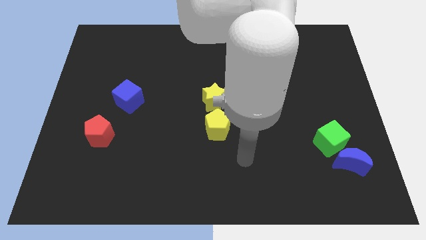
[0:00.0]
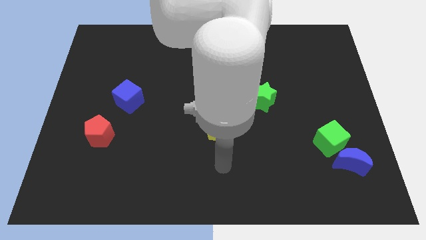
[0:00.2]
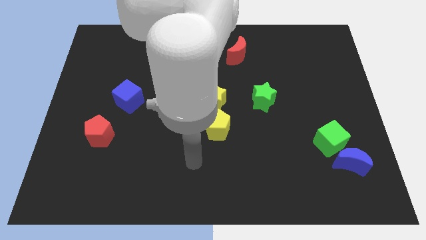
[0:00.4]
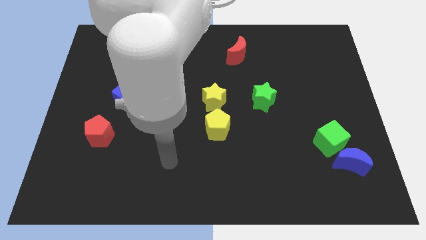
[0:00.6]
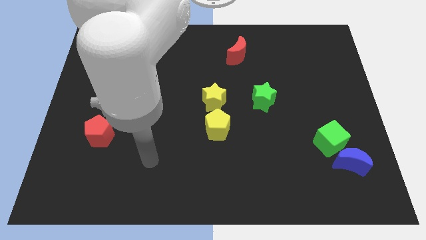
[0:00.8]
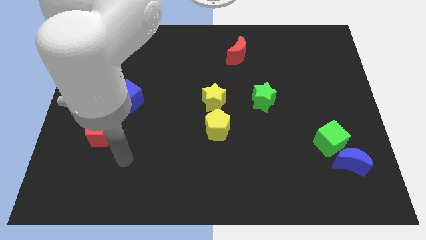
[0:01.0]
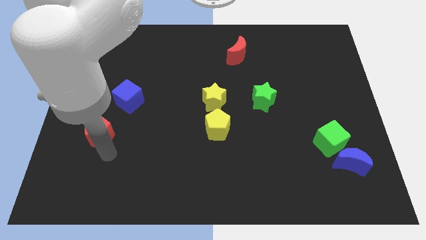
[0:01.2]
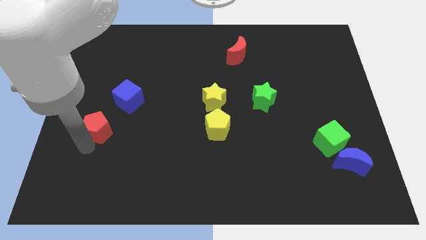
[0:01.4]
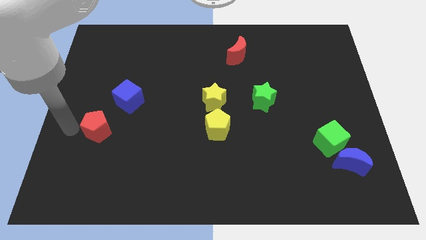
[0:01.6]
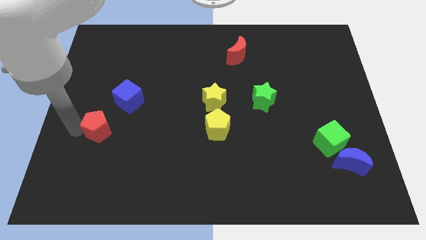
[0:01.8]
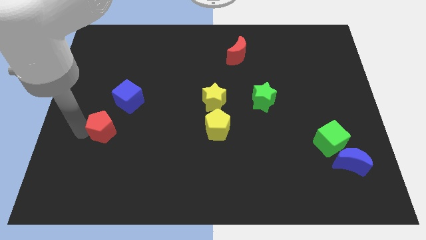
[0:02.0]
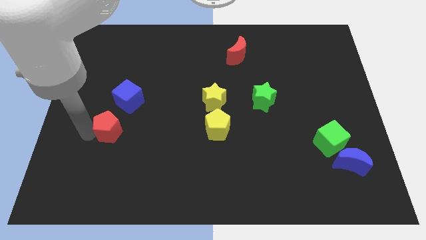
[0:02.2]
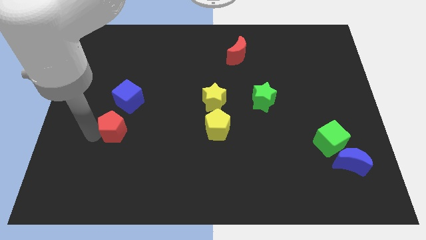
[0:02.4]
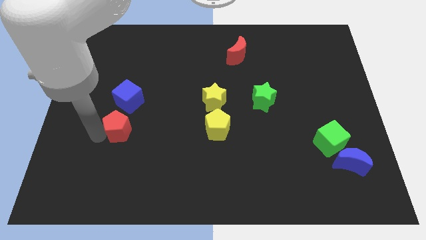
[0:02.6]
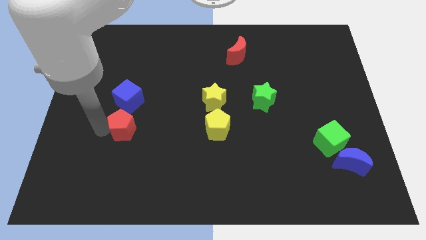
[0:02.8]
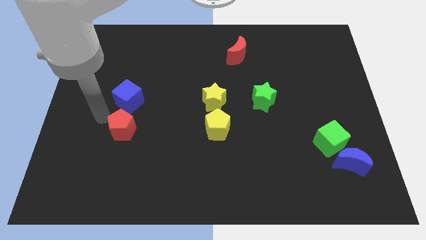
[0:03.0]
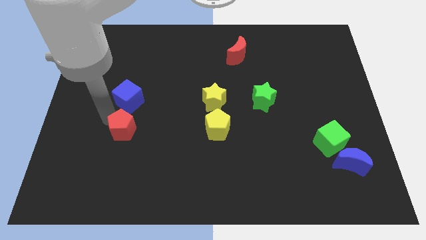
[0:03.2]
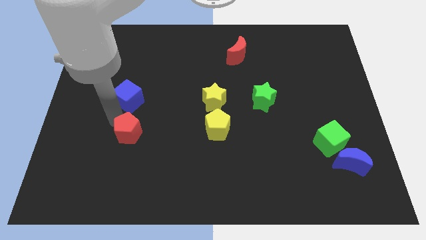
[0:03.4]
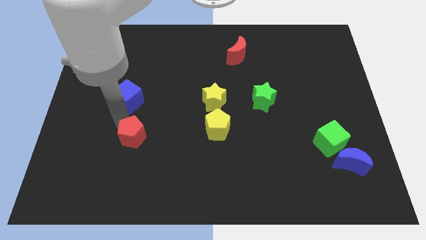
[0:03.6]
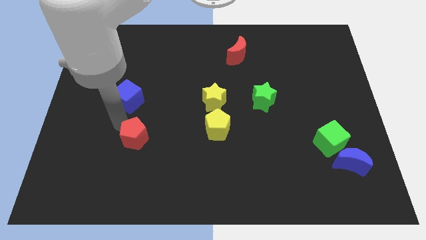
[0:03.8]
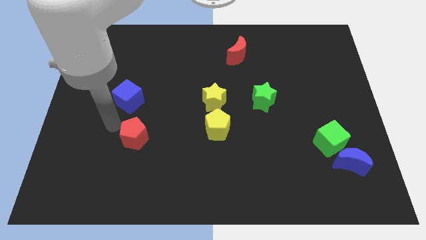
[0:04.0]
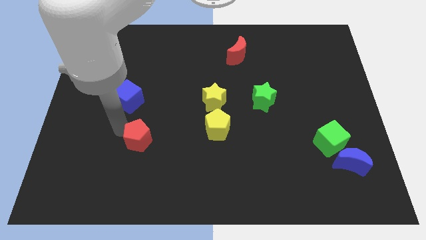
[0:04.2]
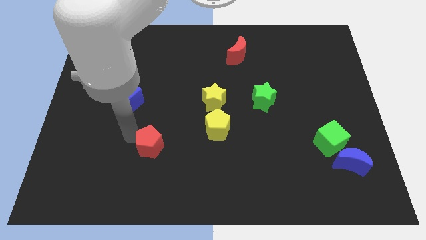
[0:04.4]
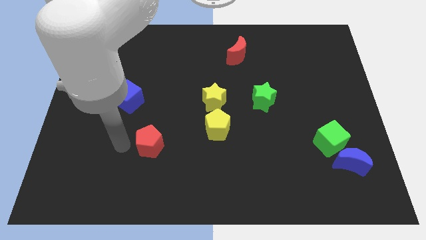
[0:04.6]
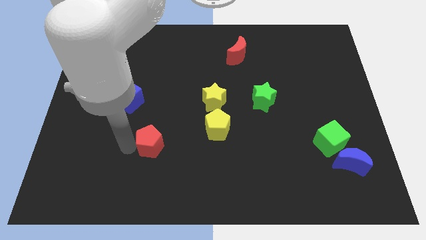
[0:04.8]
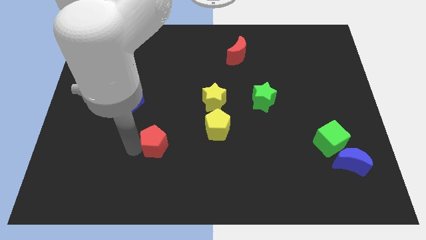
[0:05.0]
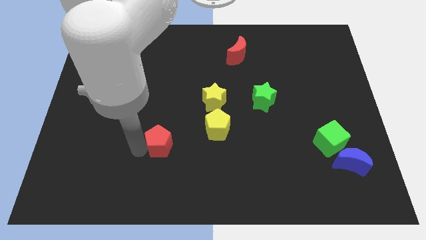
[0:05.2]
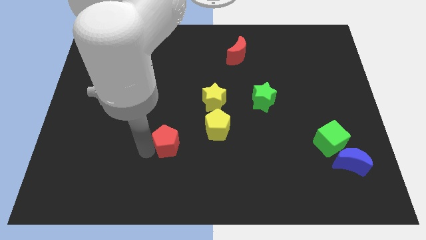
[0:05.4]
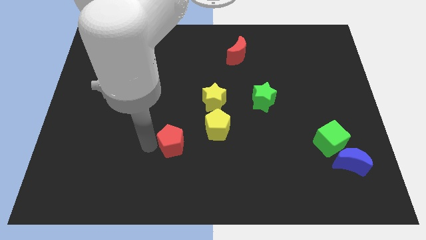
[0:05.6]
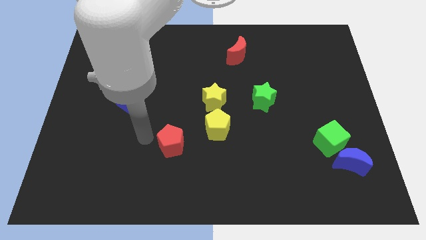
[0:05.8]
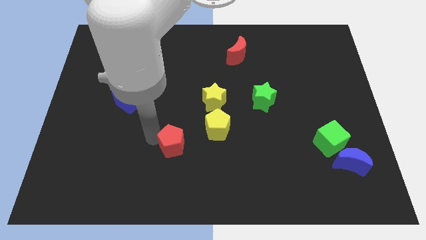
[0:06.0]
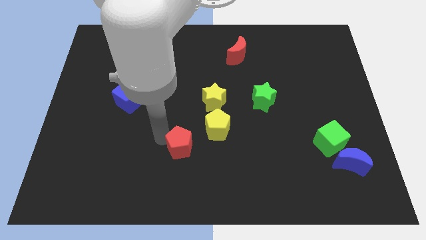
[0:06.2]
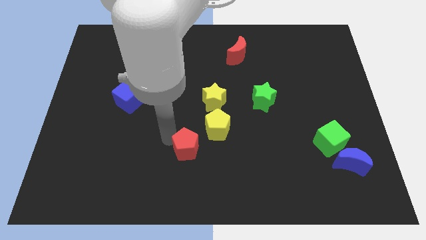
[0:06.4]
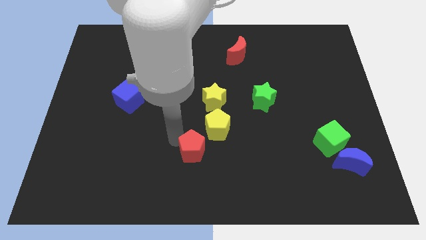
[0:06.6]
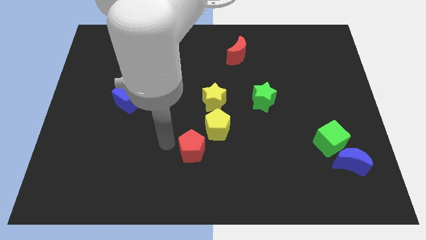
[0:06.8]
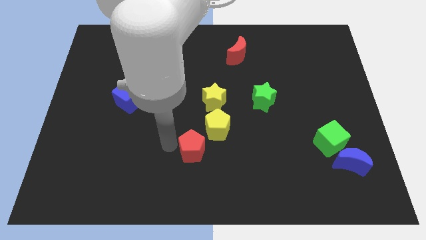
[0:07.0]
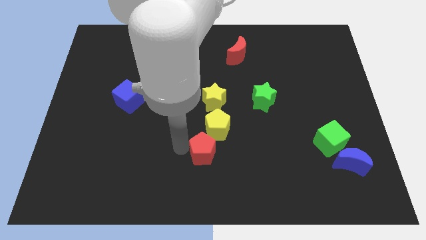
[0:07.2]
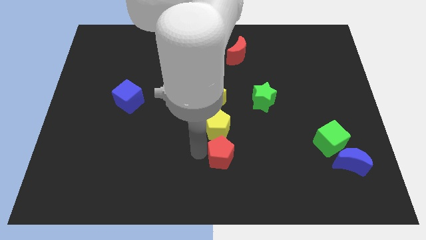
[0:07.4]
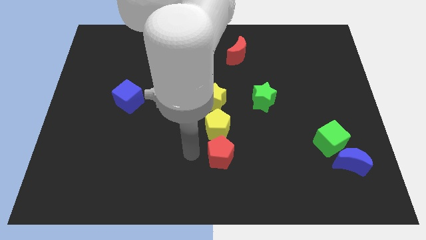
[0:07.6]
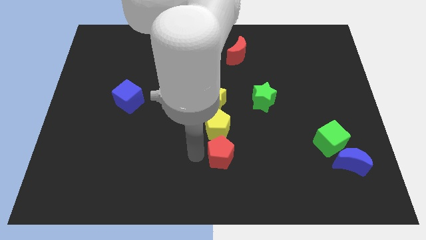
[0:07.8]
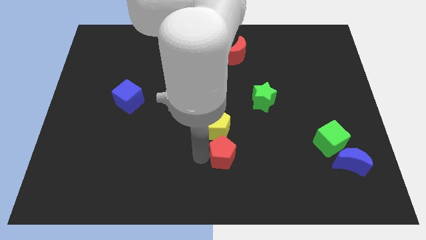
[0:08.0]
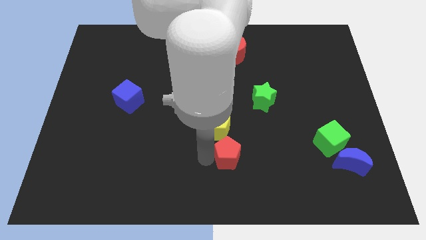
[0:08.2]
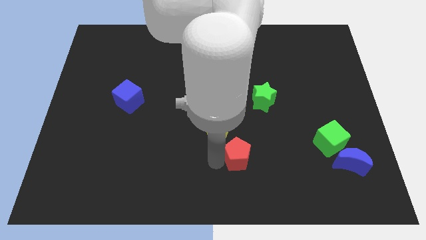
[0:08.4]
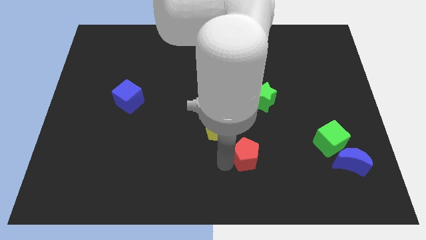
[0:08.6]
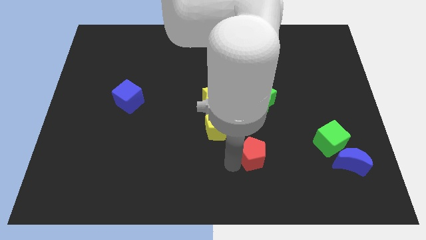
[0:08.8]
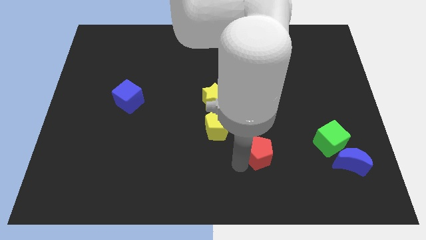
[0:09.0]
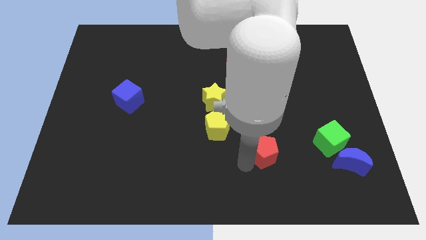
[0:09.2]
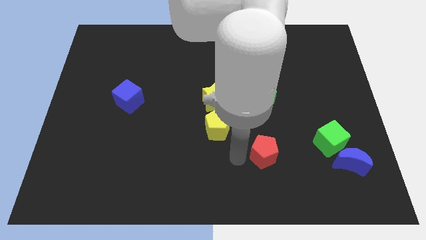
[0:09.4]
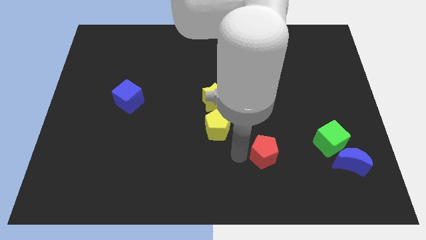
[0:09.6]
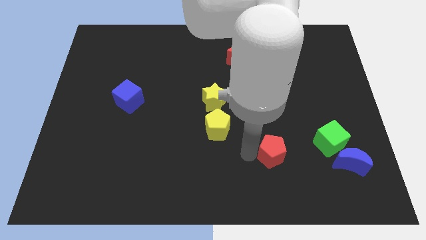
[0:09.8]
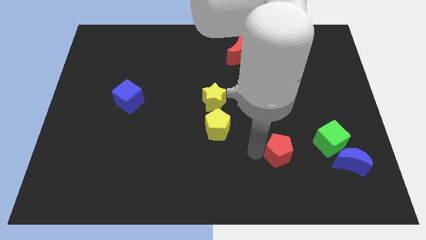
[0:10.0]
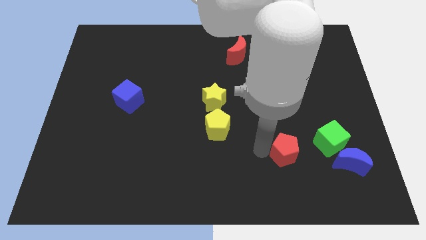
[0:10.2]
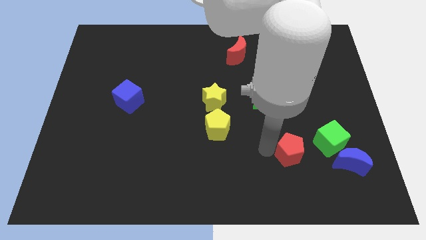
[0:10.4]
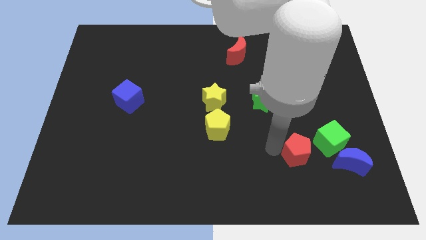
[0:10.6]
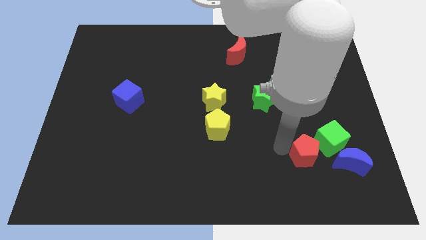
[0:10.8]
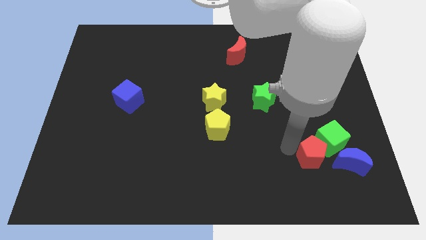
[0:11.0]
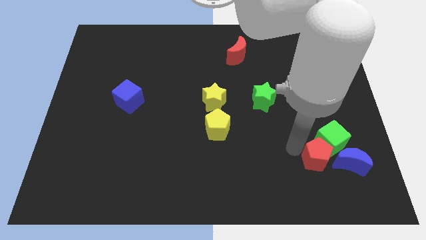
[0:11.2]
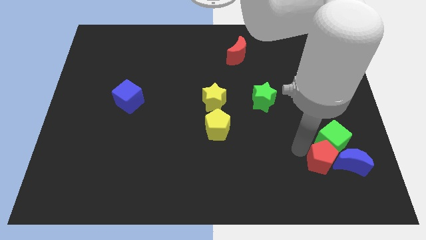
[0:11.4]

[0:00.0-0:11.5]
slide the red pentagon next to the blue moon

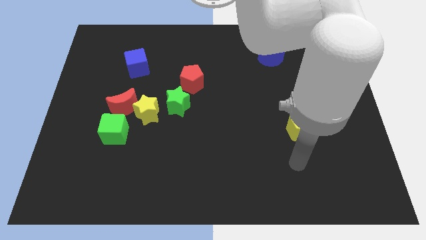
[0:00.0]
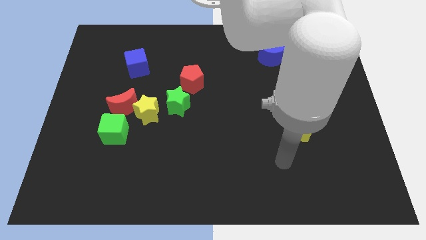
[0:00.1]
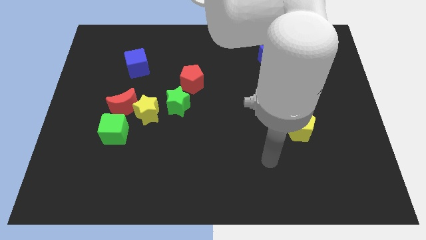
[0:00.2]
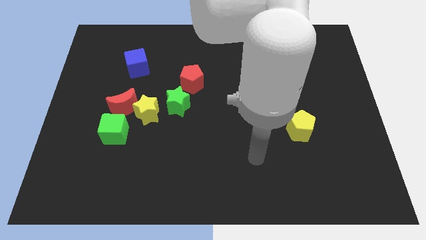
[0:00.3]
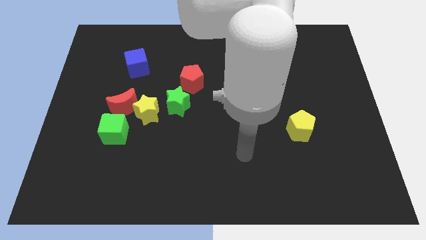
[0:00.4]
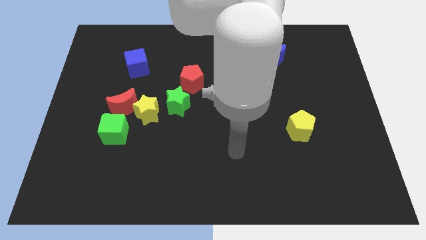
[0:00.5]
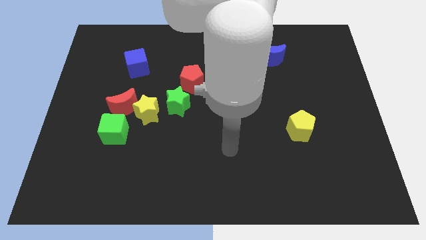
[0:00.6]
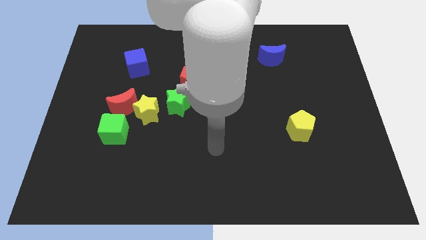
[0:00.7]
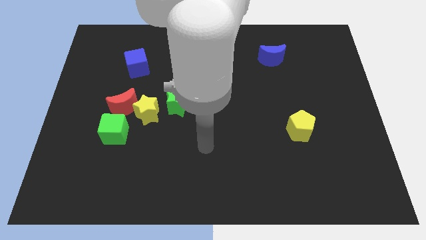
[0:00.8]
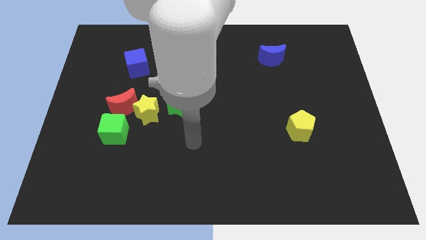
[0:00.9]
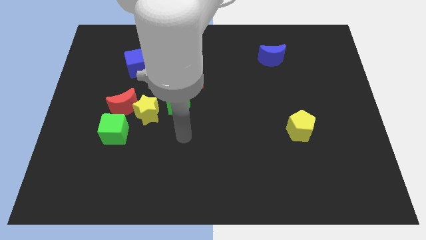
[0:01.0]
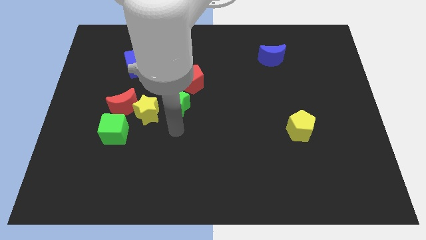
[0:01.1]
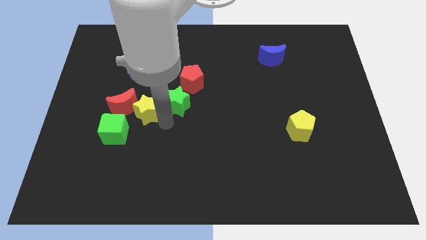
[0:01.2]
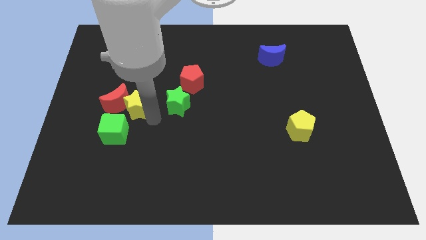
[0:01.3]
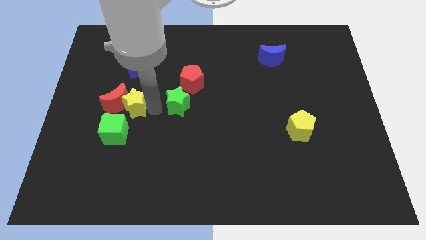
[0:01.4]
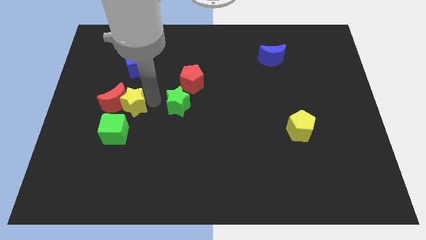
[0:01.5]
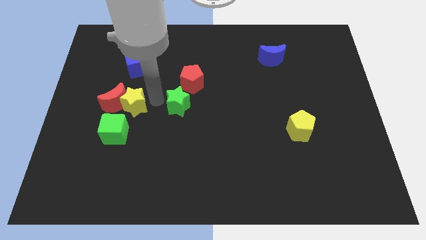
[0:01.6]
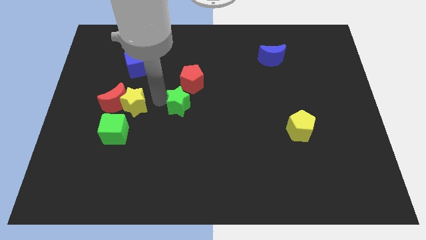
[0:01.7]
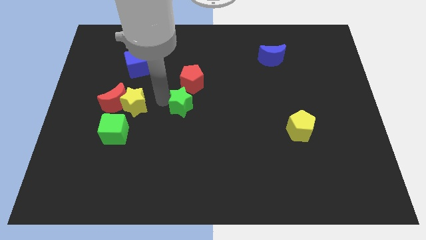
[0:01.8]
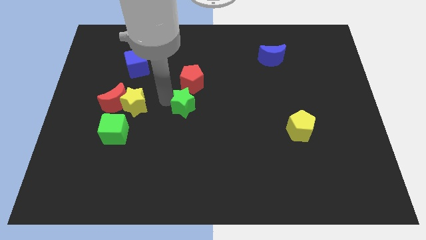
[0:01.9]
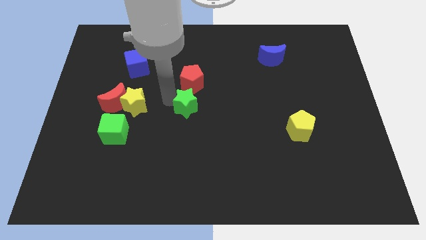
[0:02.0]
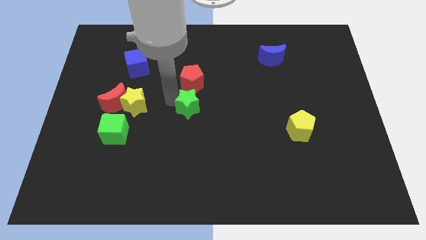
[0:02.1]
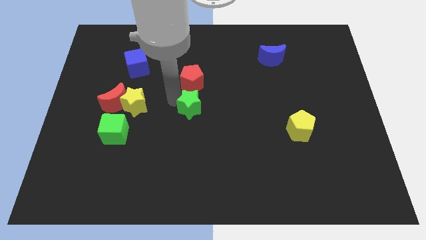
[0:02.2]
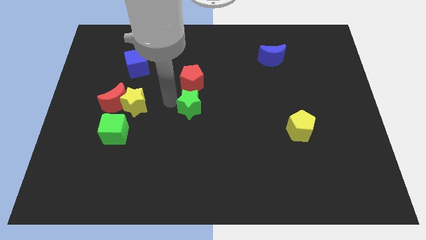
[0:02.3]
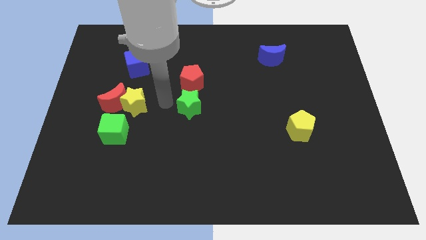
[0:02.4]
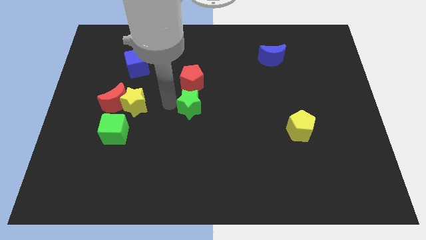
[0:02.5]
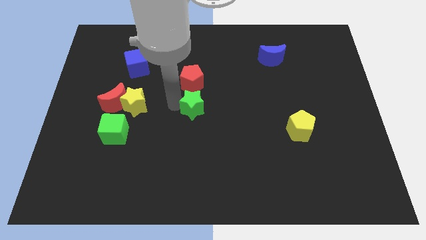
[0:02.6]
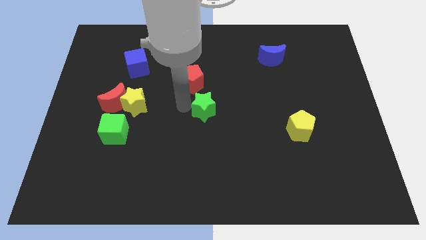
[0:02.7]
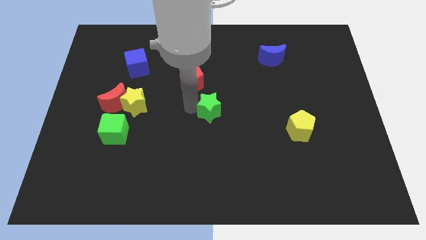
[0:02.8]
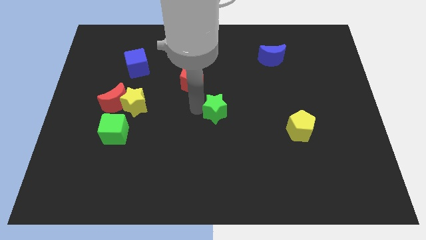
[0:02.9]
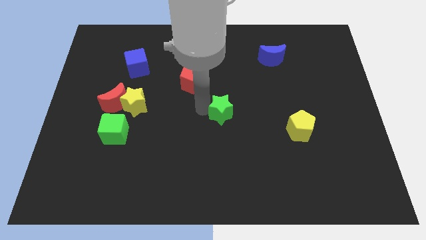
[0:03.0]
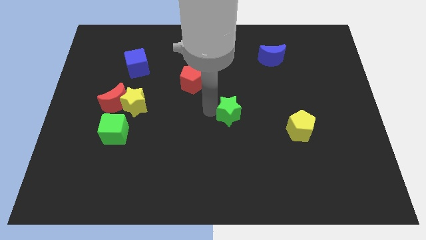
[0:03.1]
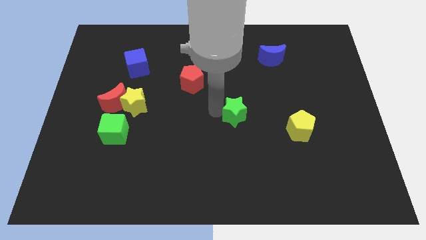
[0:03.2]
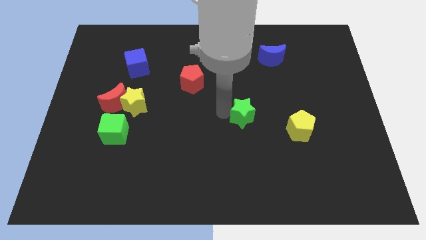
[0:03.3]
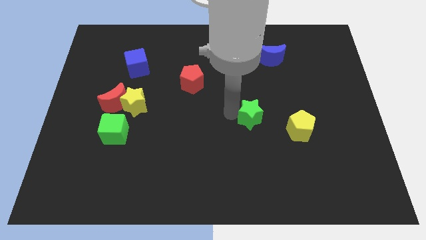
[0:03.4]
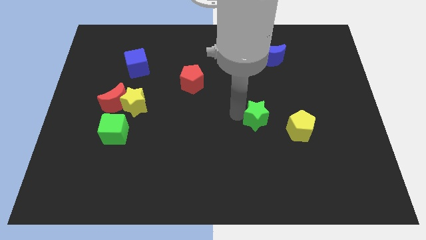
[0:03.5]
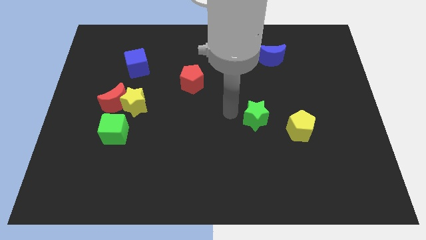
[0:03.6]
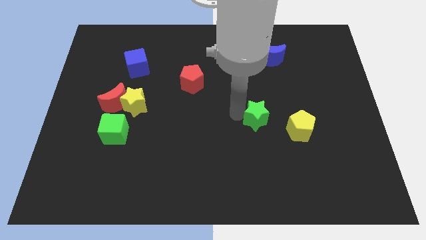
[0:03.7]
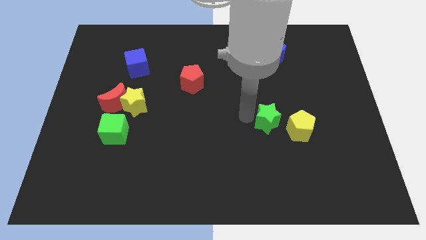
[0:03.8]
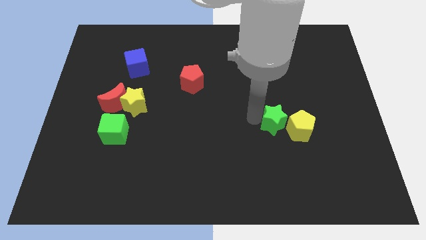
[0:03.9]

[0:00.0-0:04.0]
move the green star to the yellow pentagon
